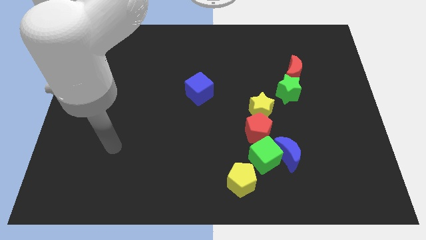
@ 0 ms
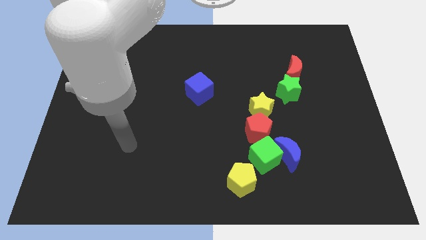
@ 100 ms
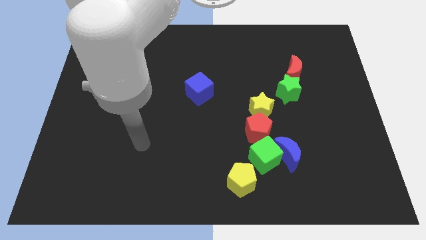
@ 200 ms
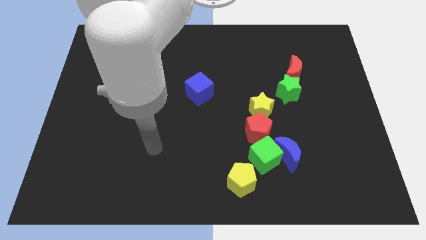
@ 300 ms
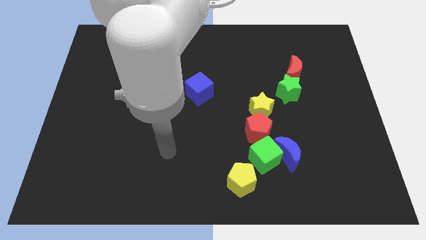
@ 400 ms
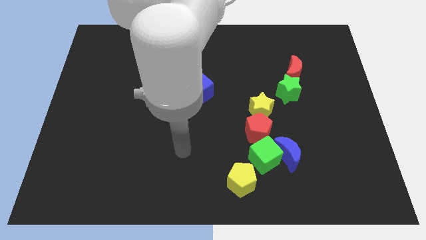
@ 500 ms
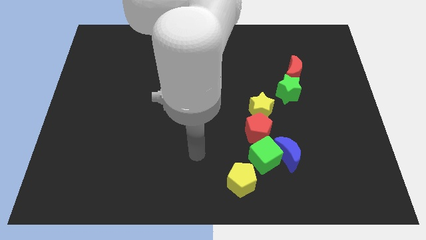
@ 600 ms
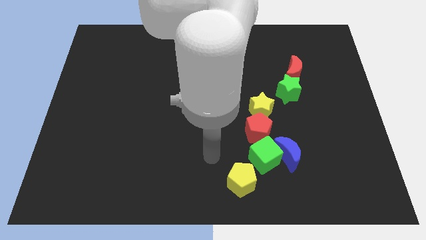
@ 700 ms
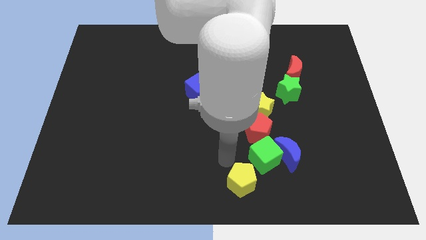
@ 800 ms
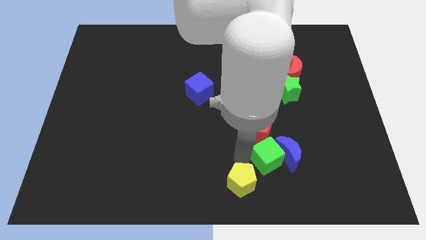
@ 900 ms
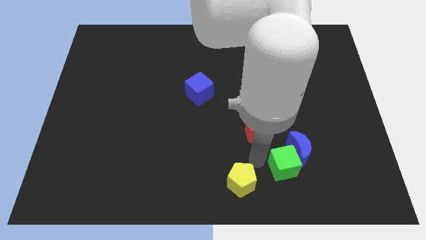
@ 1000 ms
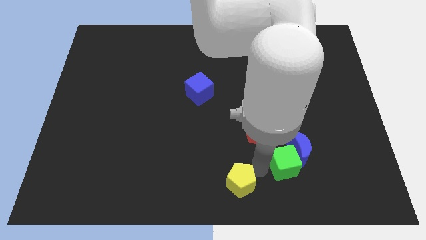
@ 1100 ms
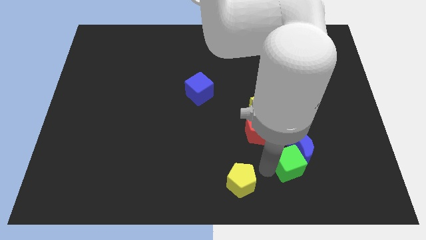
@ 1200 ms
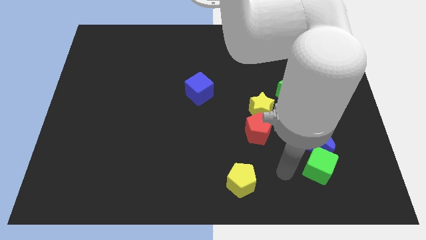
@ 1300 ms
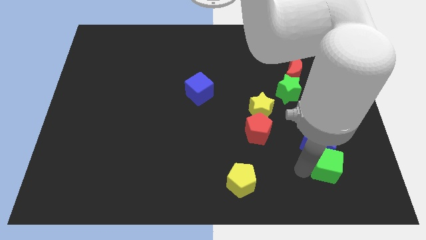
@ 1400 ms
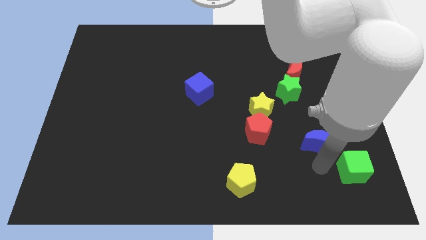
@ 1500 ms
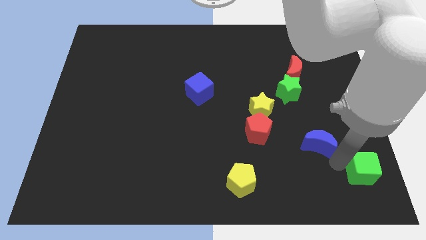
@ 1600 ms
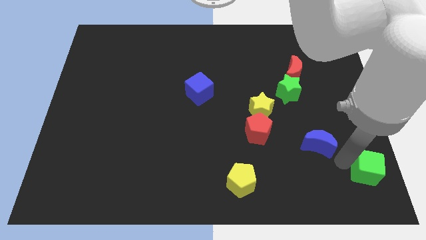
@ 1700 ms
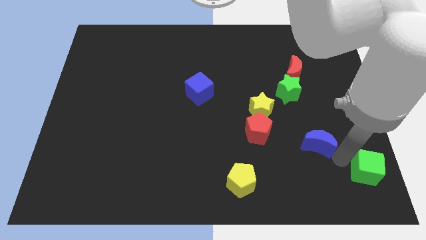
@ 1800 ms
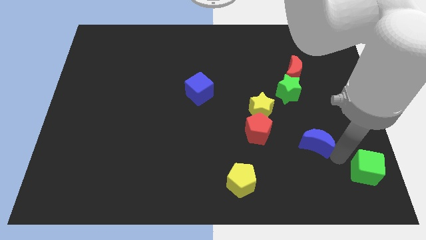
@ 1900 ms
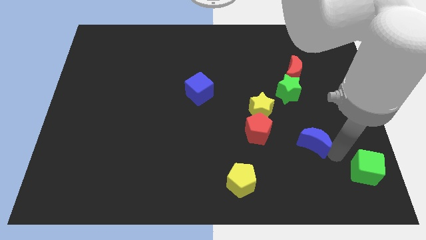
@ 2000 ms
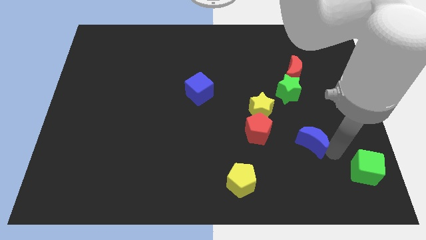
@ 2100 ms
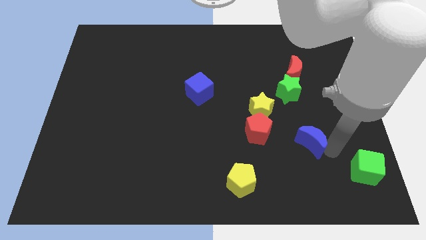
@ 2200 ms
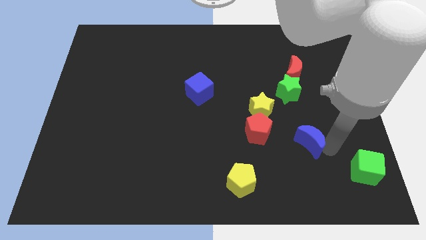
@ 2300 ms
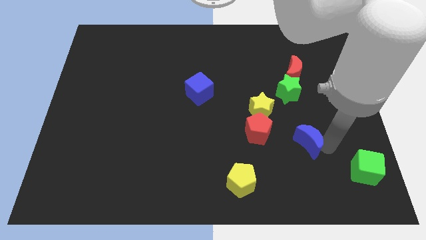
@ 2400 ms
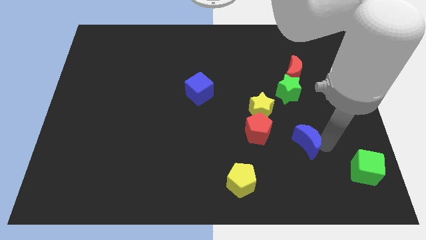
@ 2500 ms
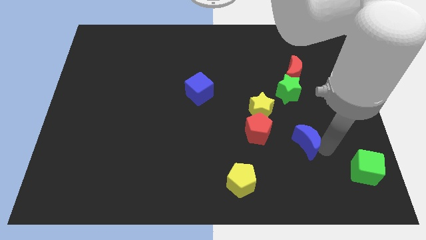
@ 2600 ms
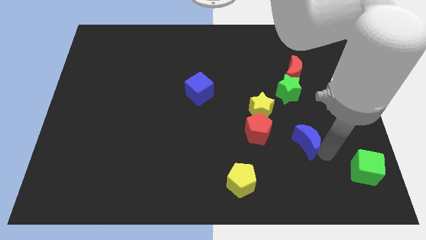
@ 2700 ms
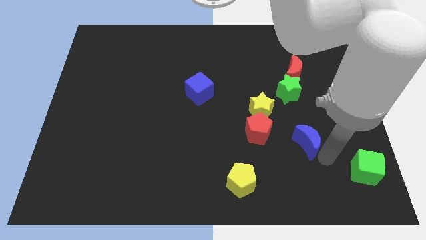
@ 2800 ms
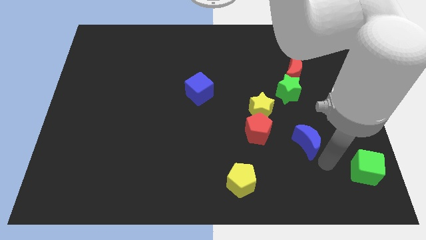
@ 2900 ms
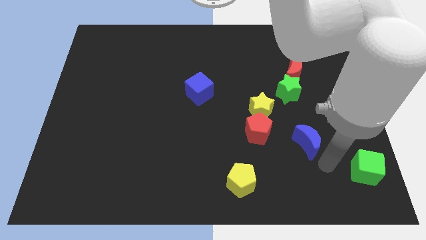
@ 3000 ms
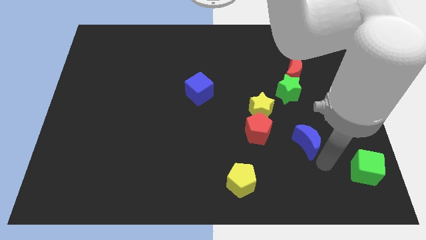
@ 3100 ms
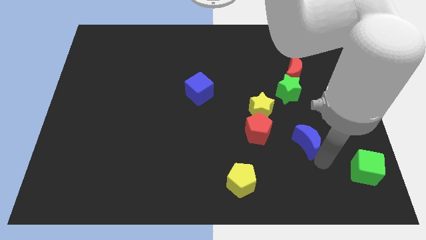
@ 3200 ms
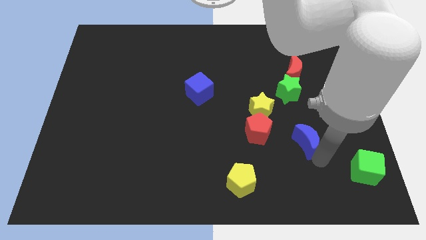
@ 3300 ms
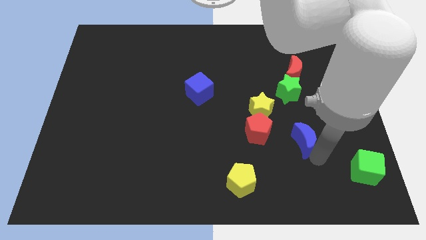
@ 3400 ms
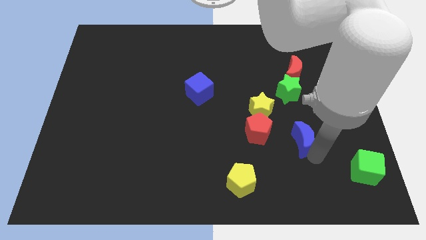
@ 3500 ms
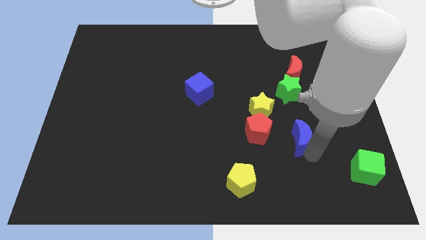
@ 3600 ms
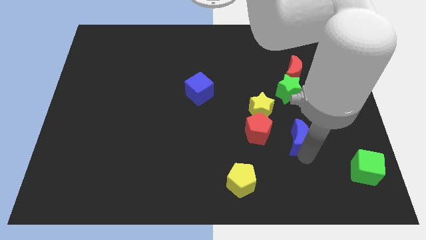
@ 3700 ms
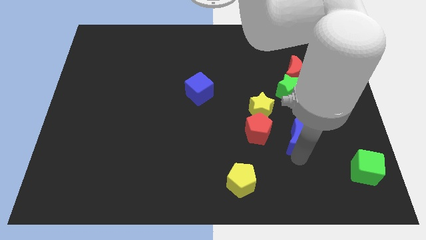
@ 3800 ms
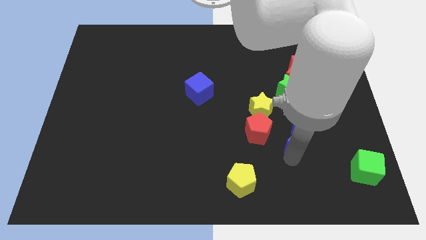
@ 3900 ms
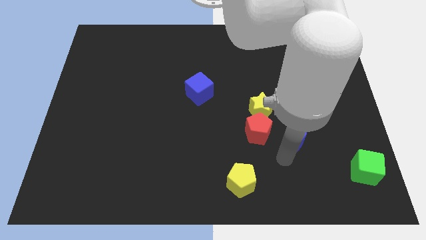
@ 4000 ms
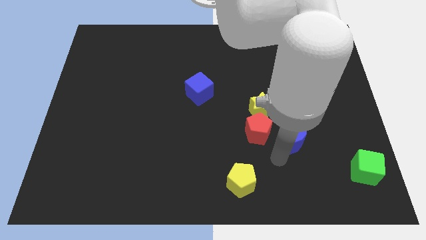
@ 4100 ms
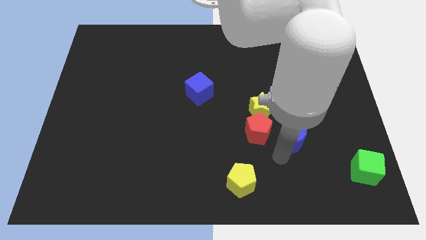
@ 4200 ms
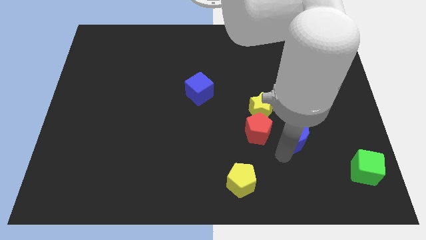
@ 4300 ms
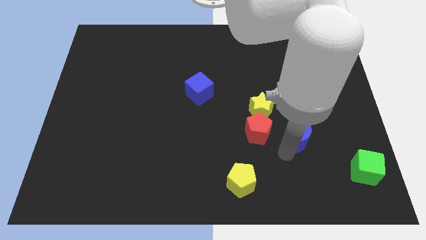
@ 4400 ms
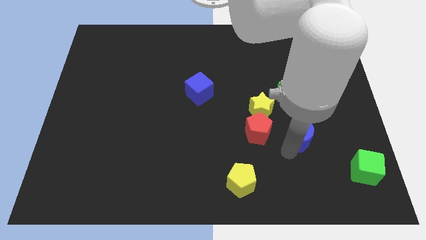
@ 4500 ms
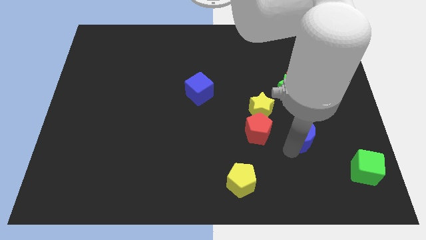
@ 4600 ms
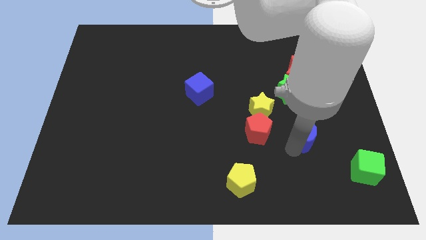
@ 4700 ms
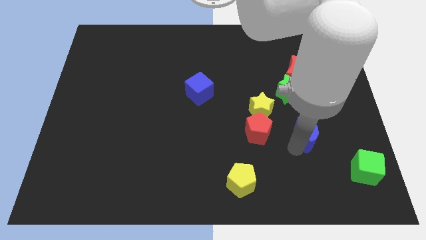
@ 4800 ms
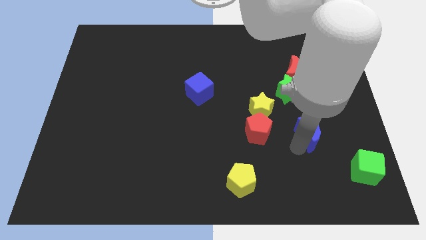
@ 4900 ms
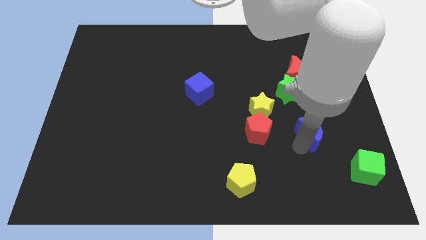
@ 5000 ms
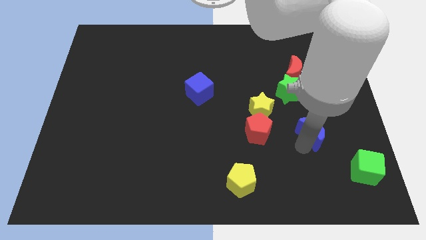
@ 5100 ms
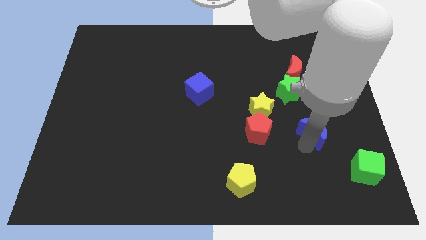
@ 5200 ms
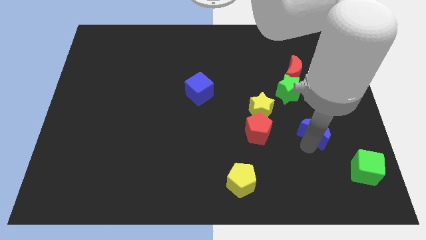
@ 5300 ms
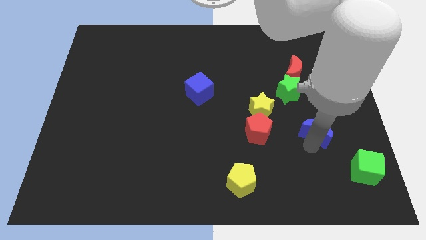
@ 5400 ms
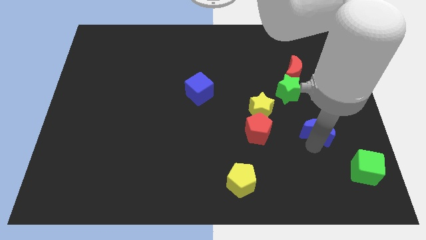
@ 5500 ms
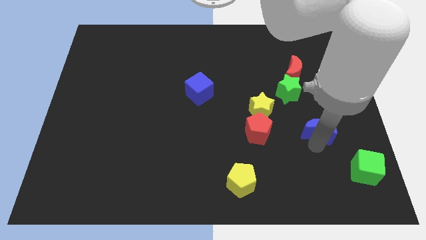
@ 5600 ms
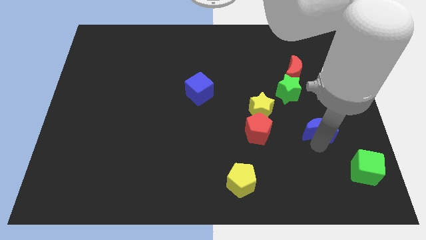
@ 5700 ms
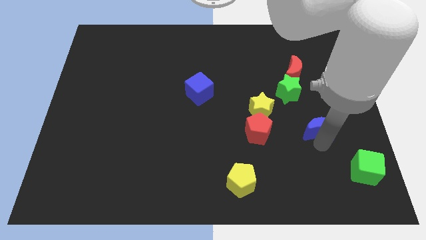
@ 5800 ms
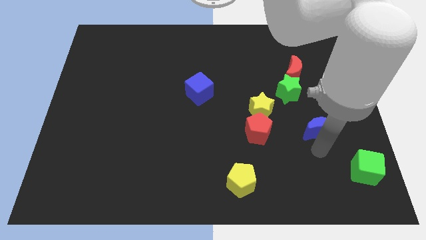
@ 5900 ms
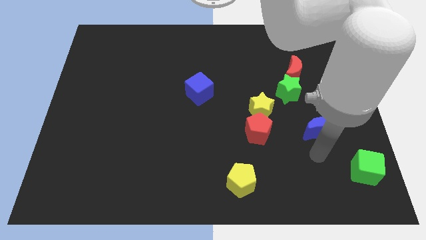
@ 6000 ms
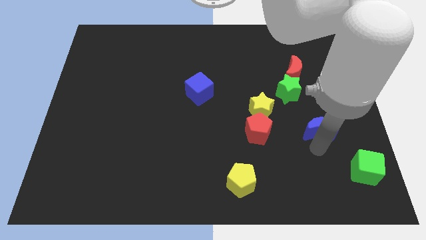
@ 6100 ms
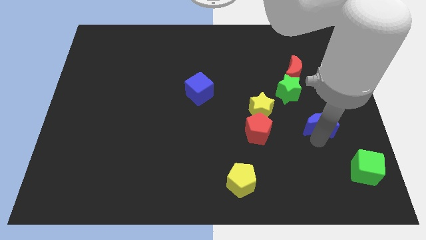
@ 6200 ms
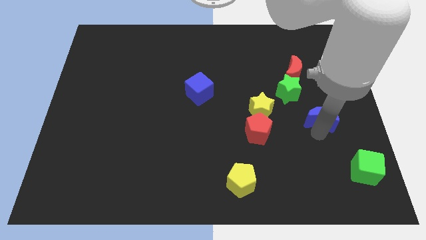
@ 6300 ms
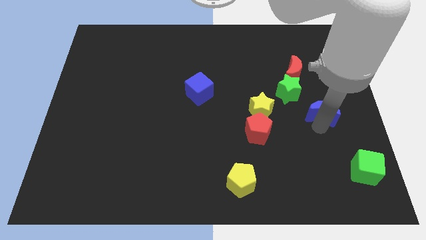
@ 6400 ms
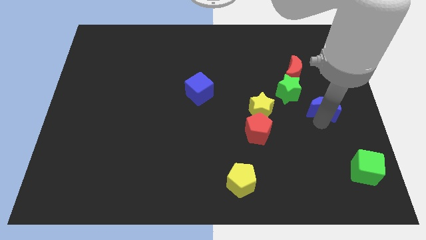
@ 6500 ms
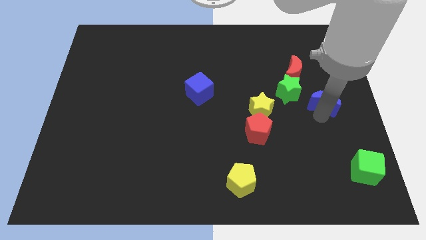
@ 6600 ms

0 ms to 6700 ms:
put the blue moon right of the green star
